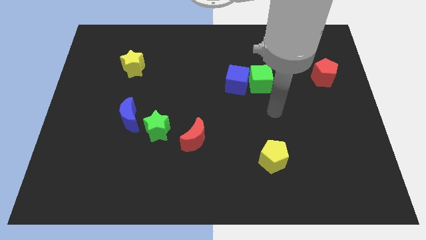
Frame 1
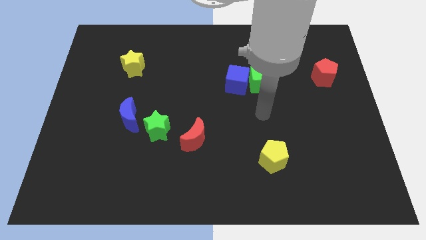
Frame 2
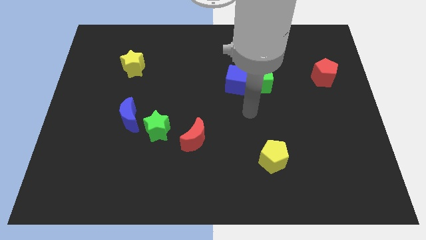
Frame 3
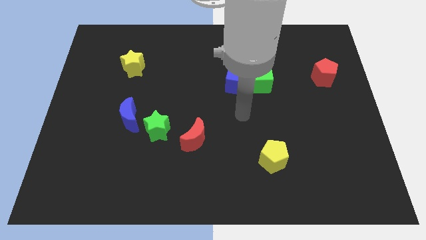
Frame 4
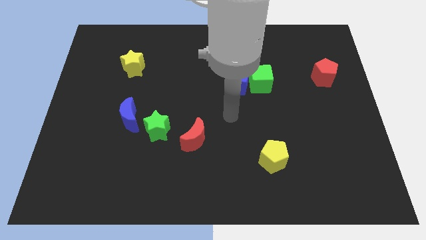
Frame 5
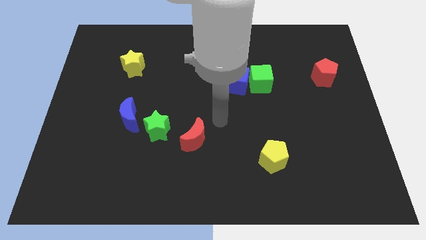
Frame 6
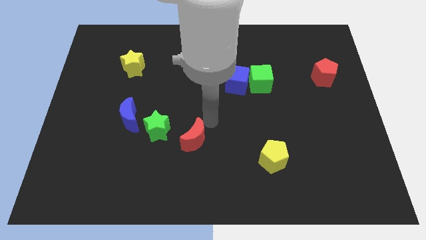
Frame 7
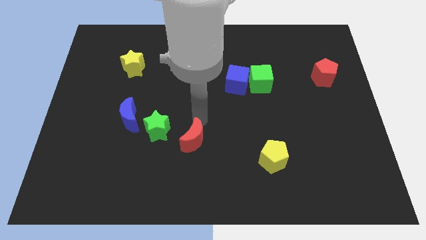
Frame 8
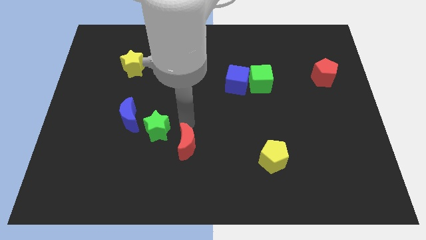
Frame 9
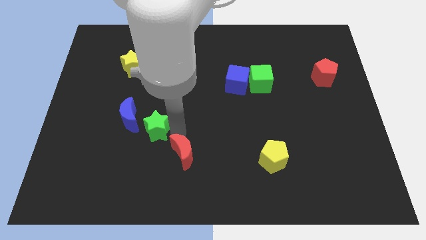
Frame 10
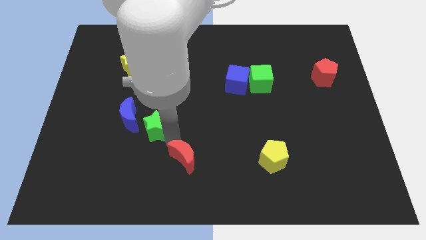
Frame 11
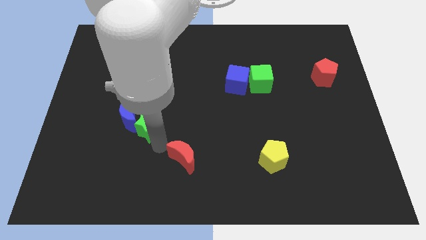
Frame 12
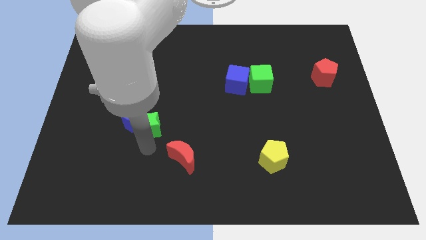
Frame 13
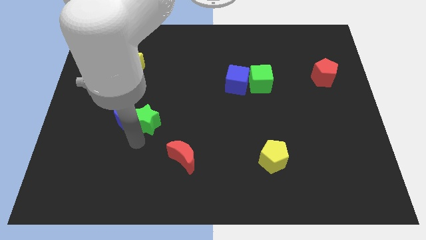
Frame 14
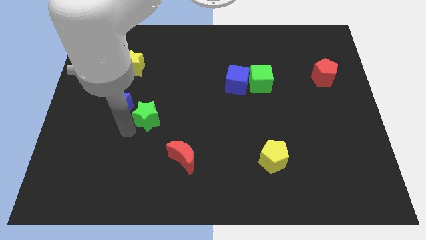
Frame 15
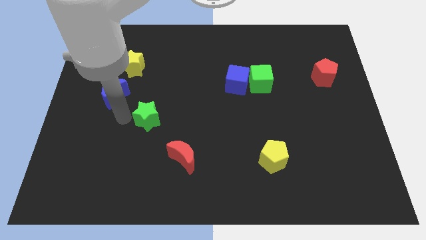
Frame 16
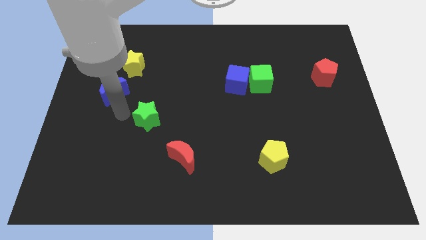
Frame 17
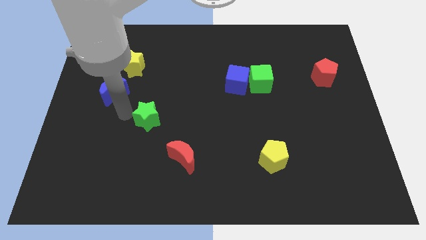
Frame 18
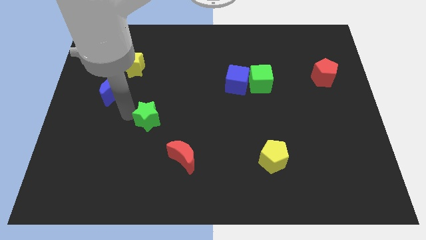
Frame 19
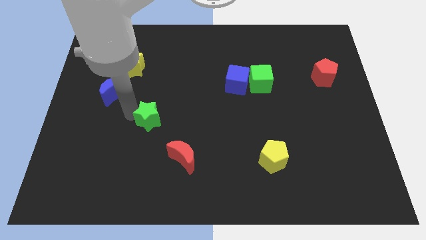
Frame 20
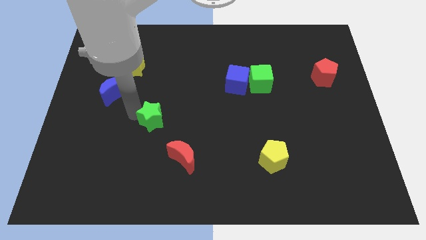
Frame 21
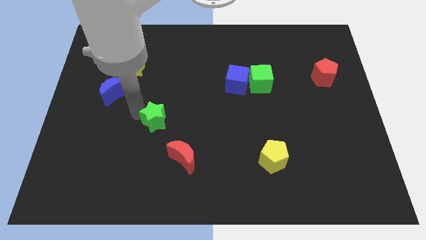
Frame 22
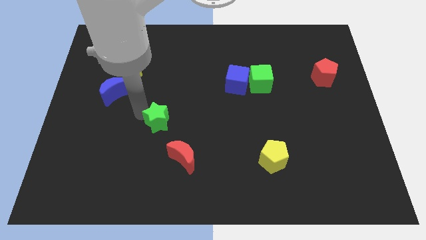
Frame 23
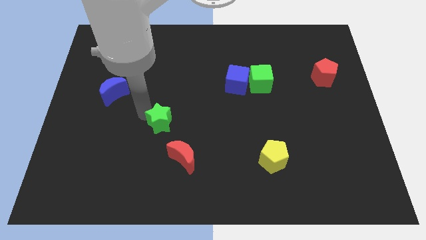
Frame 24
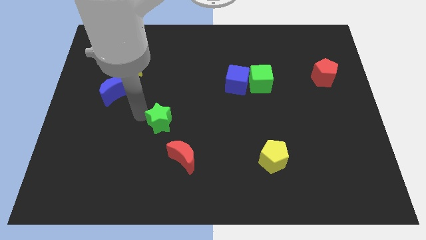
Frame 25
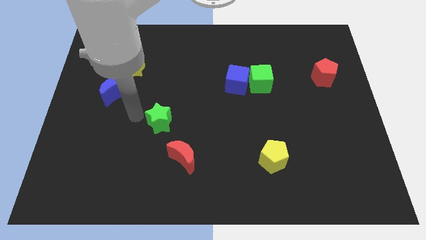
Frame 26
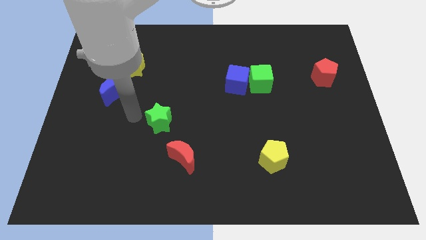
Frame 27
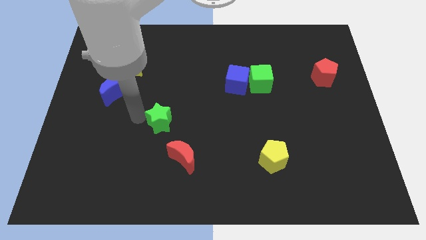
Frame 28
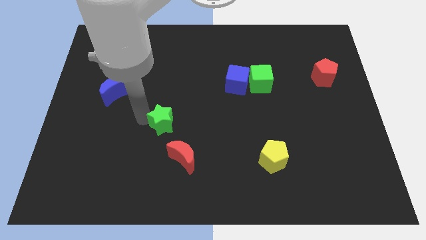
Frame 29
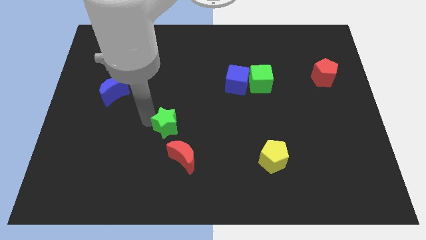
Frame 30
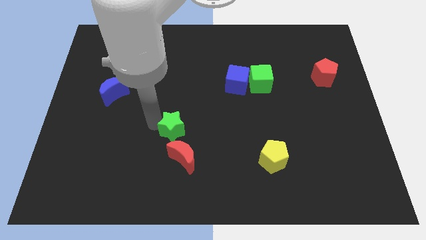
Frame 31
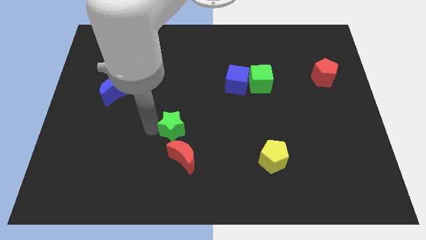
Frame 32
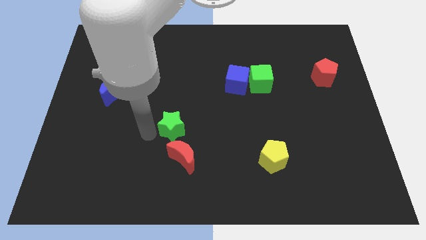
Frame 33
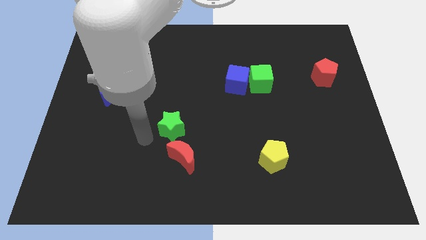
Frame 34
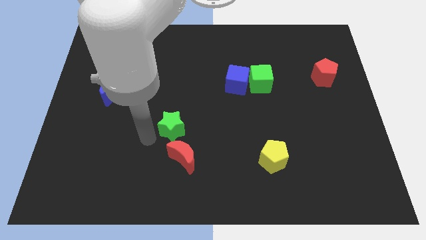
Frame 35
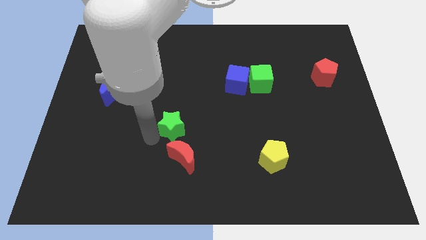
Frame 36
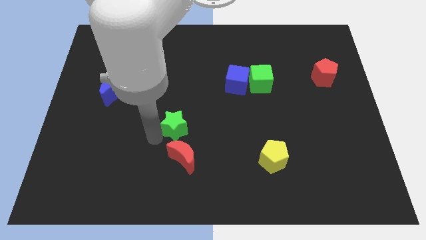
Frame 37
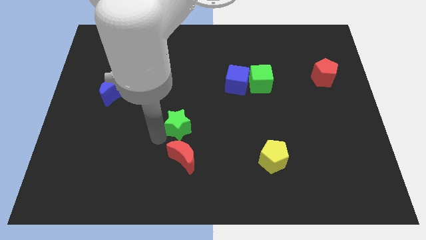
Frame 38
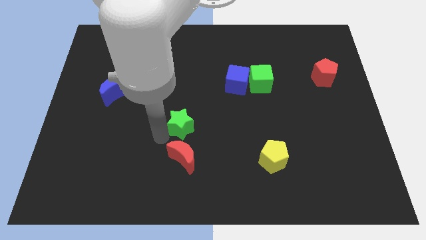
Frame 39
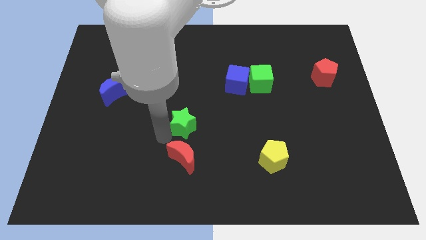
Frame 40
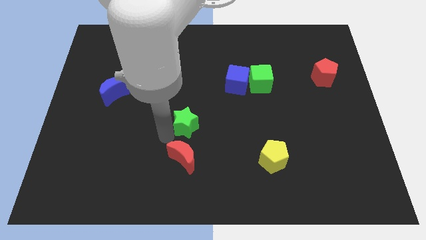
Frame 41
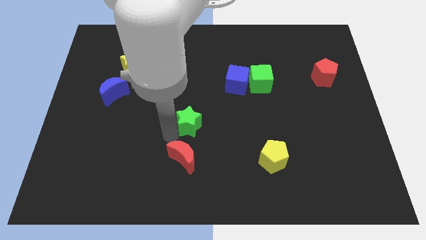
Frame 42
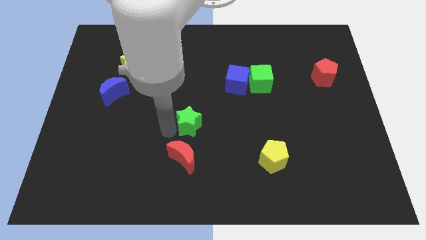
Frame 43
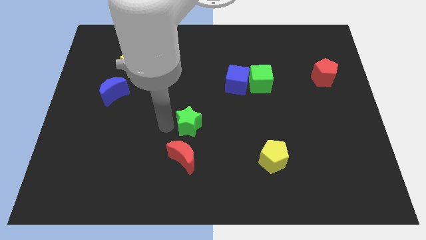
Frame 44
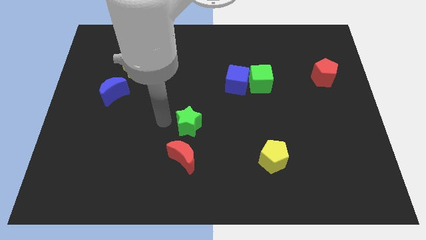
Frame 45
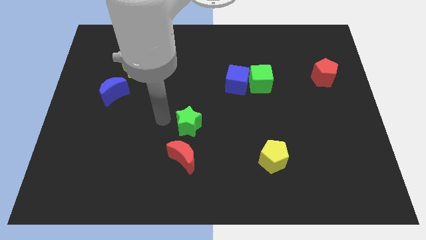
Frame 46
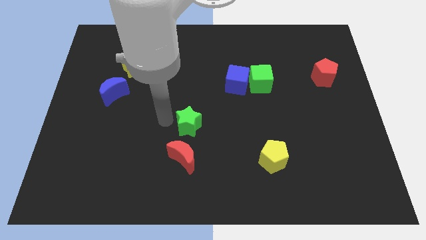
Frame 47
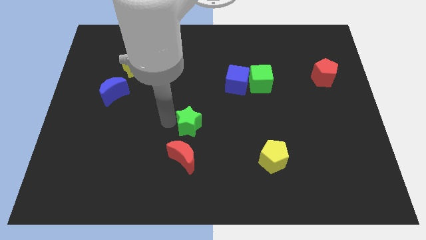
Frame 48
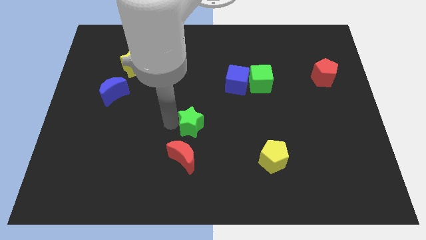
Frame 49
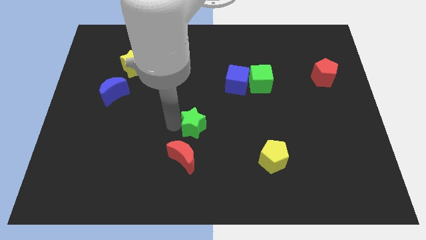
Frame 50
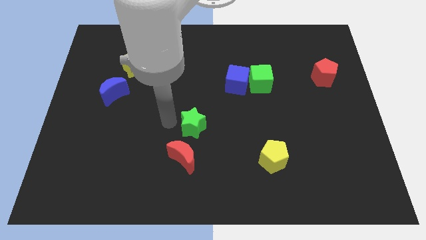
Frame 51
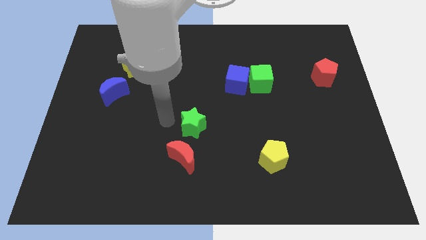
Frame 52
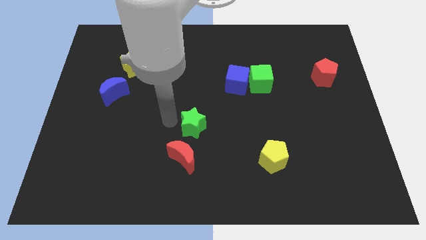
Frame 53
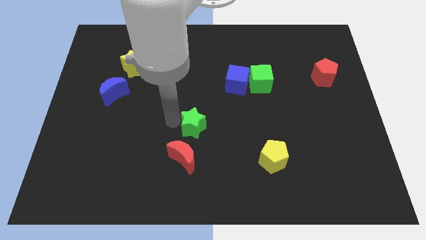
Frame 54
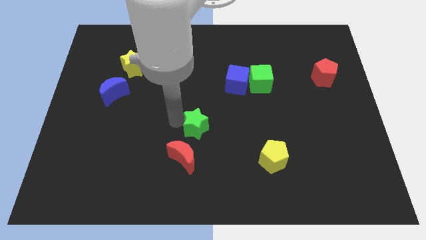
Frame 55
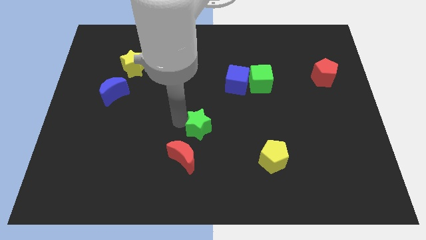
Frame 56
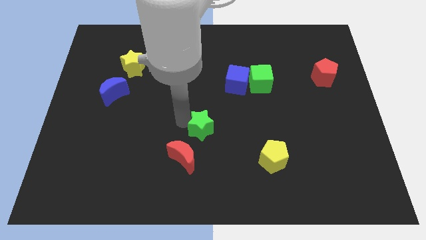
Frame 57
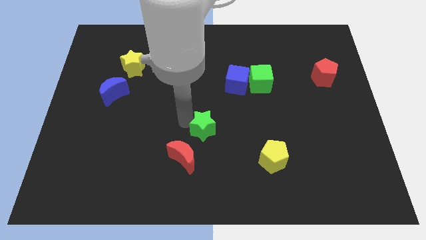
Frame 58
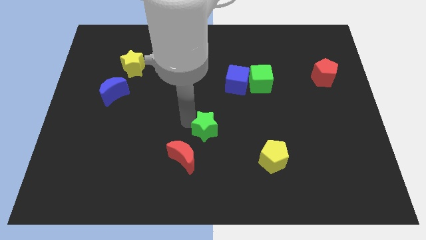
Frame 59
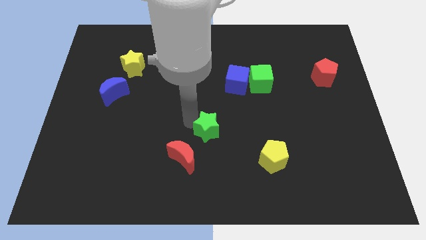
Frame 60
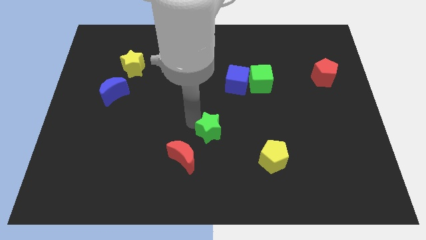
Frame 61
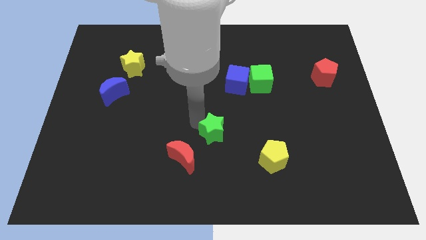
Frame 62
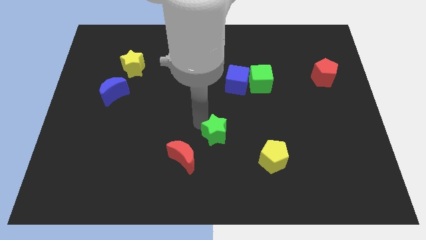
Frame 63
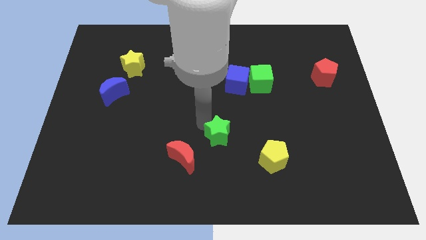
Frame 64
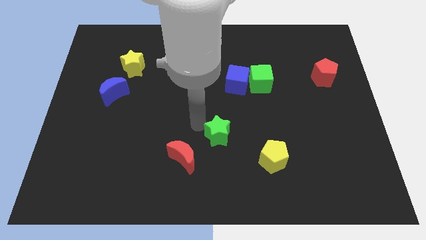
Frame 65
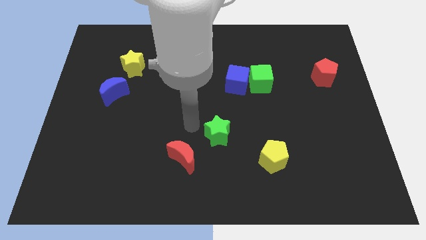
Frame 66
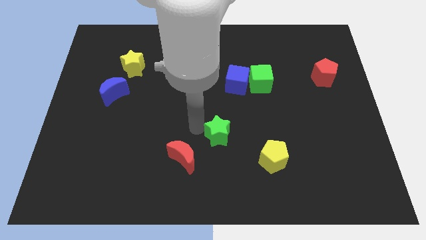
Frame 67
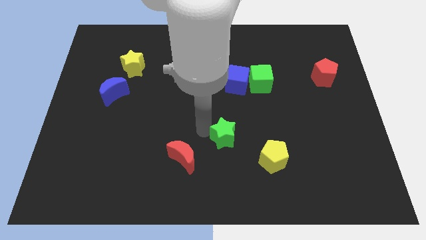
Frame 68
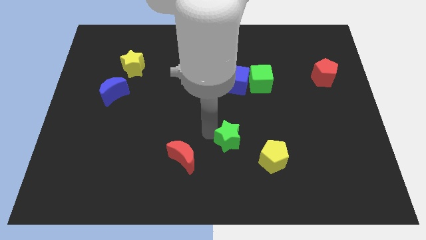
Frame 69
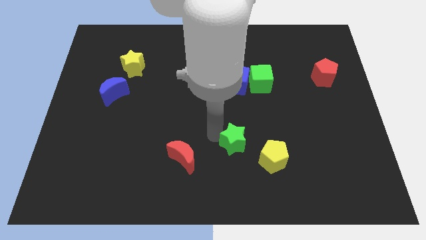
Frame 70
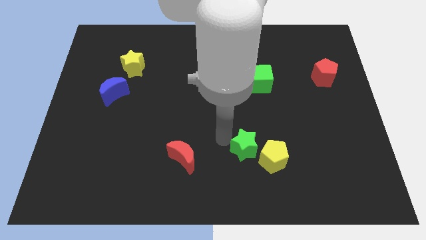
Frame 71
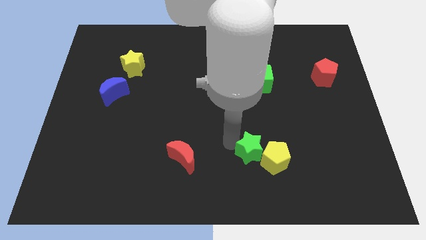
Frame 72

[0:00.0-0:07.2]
move the green star towards the yellow pentagon

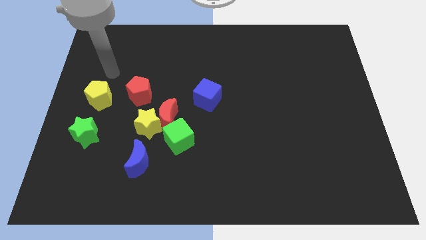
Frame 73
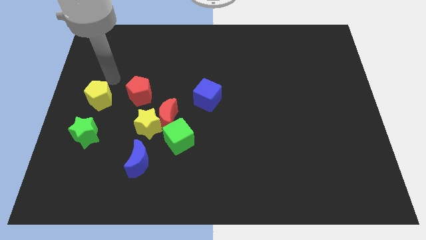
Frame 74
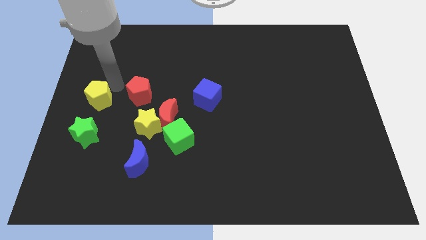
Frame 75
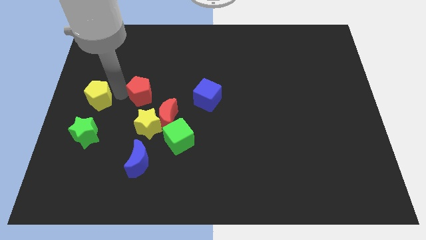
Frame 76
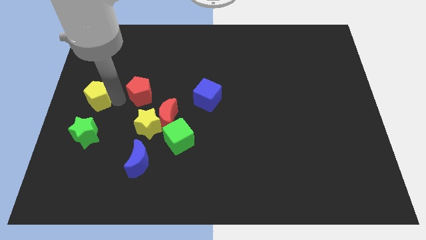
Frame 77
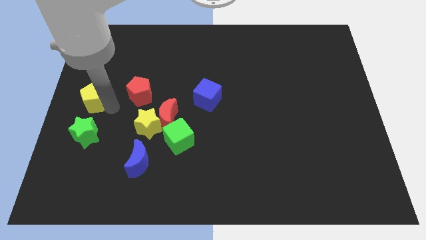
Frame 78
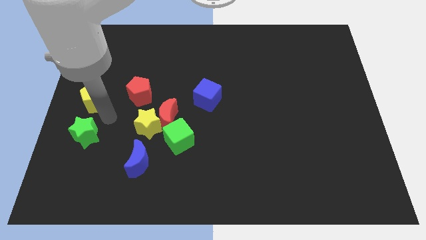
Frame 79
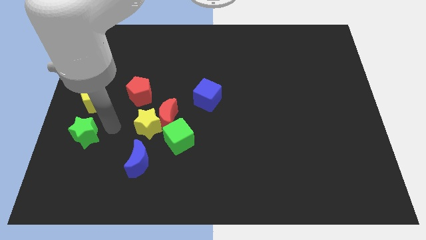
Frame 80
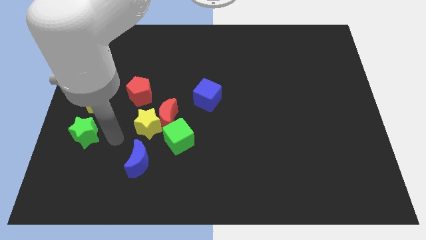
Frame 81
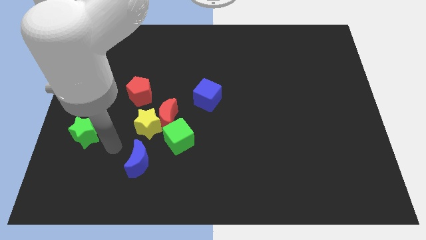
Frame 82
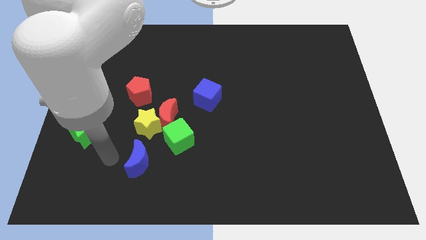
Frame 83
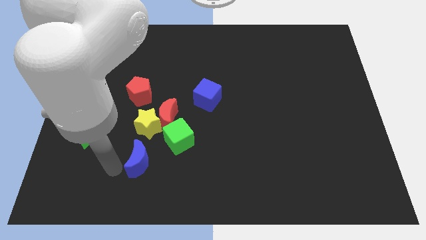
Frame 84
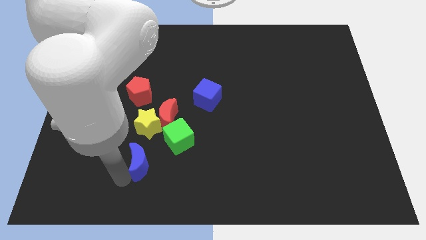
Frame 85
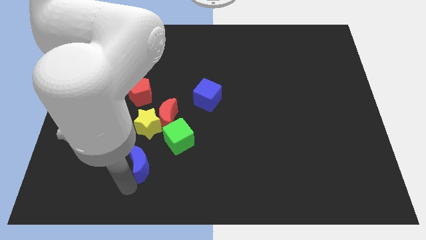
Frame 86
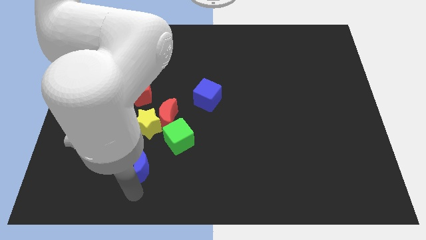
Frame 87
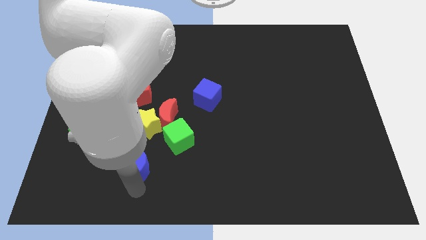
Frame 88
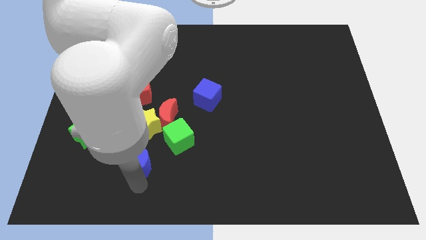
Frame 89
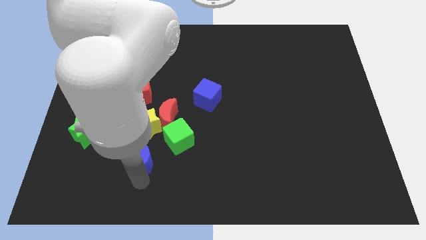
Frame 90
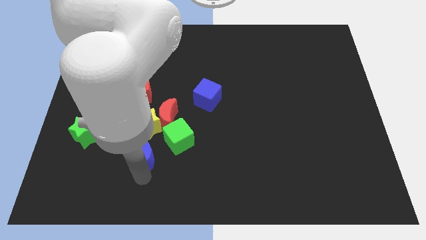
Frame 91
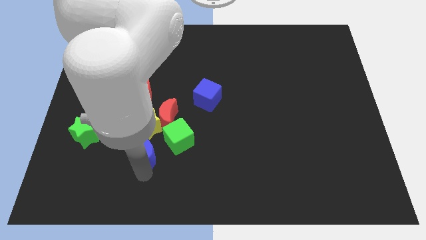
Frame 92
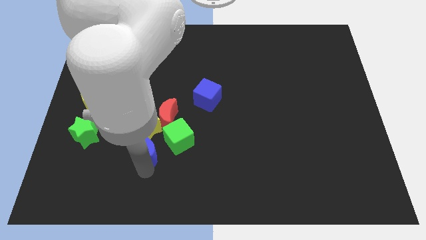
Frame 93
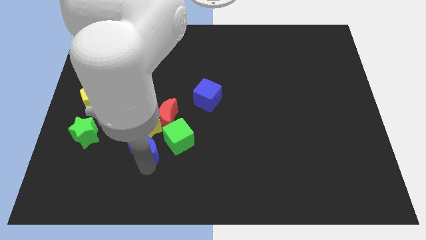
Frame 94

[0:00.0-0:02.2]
move the blue moon close to the yellow star
